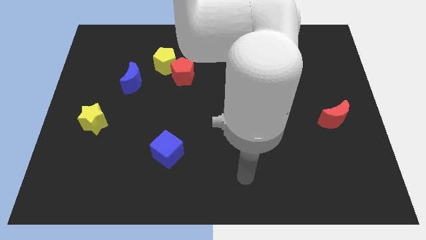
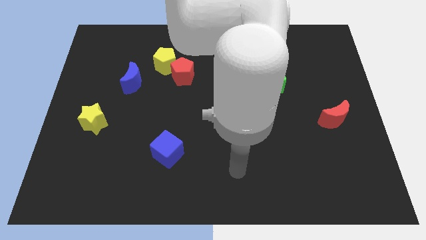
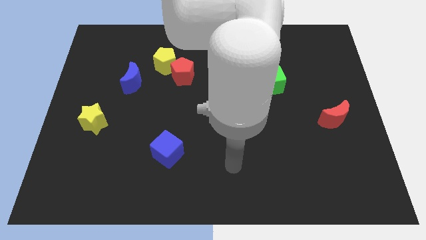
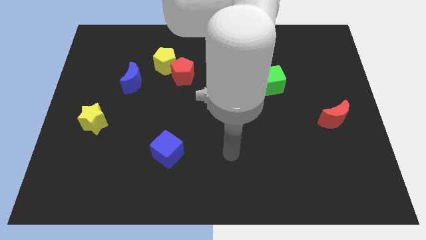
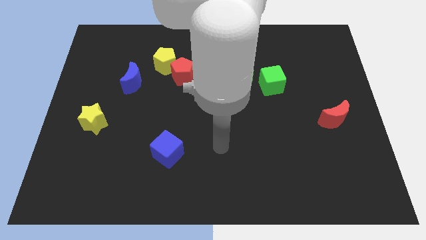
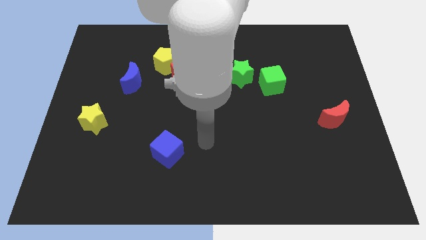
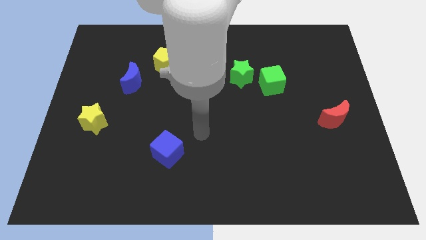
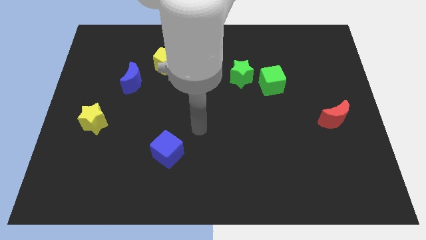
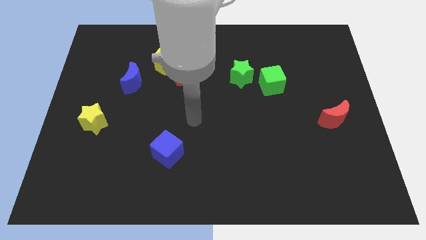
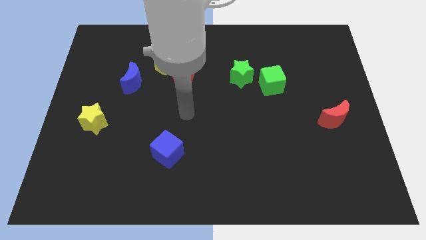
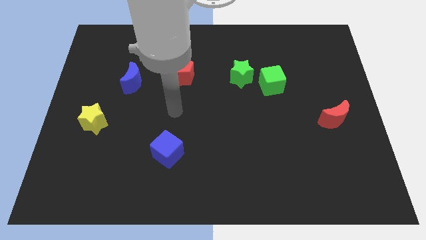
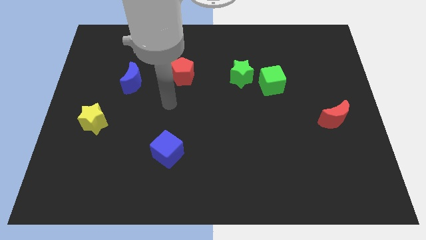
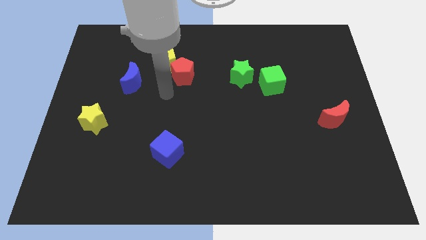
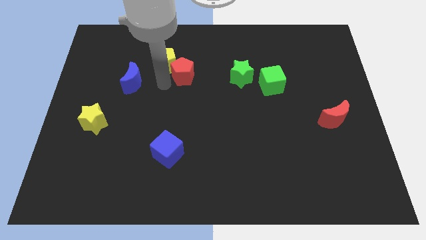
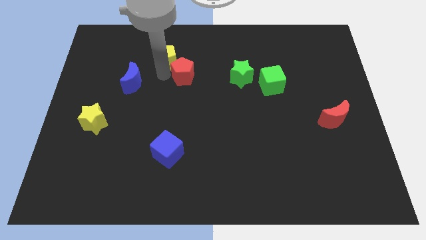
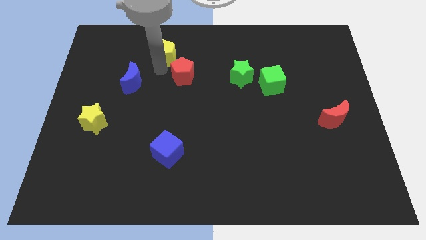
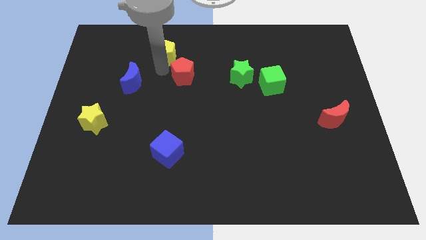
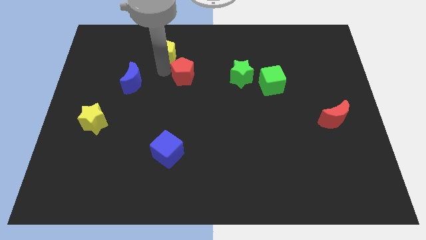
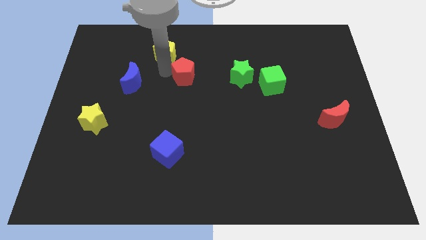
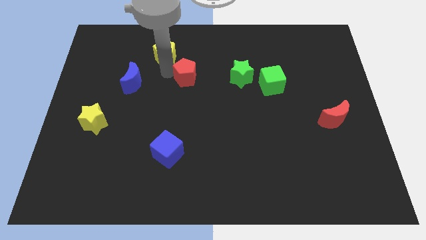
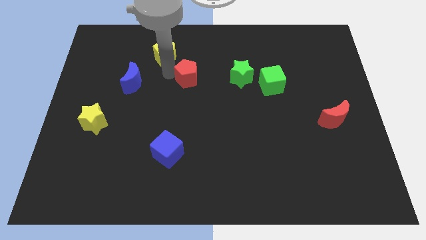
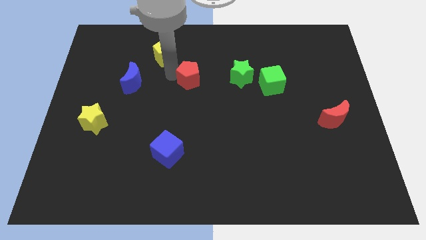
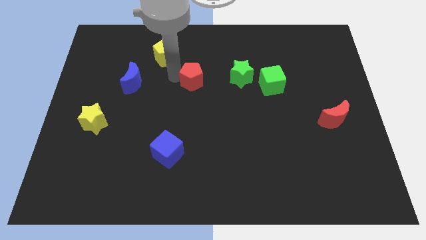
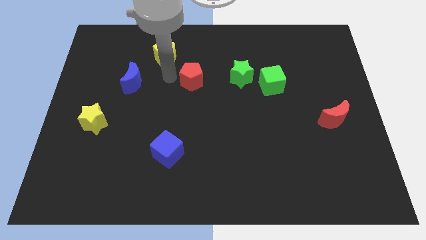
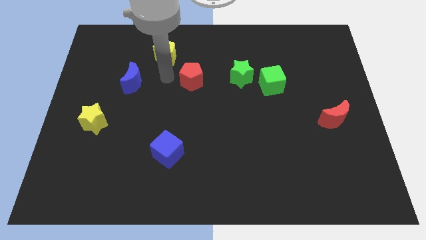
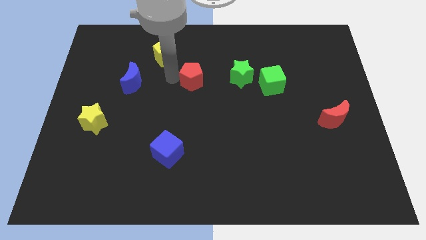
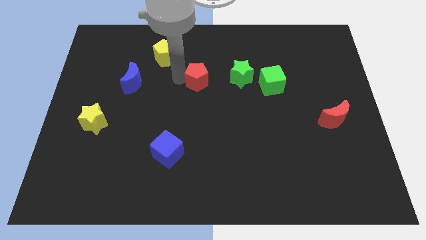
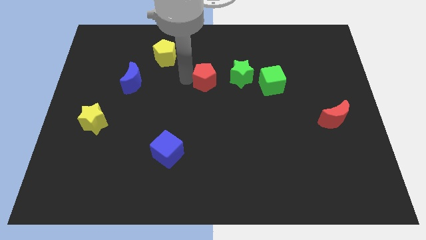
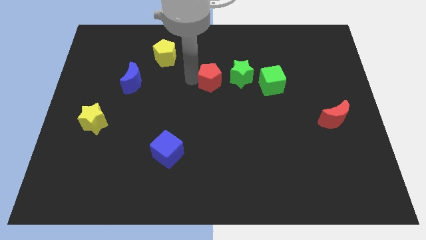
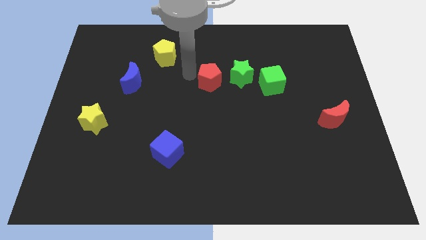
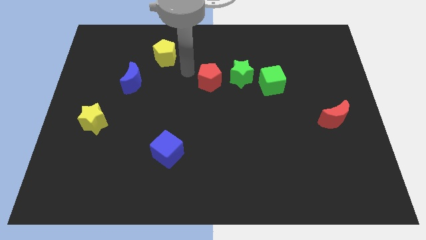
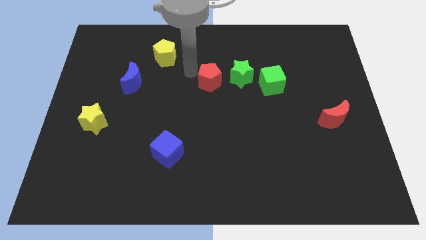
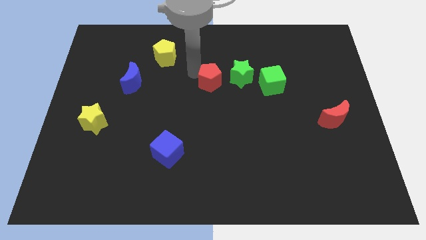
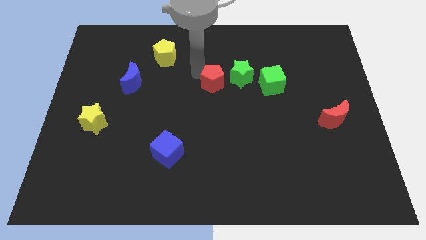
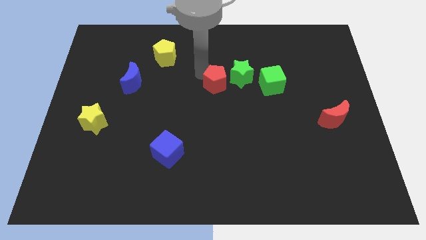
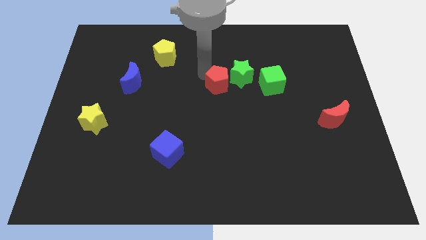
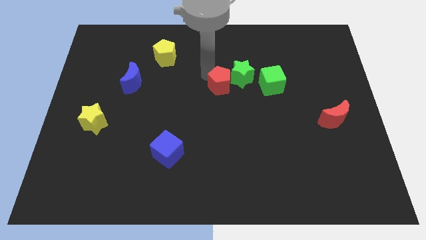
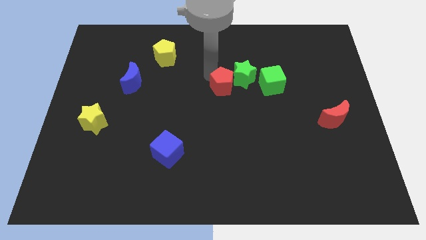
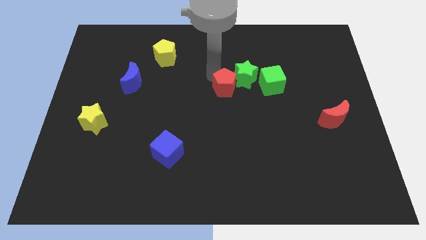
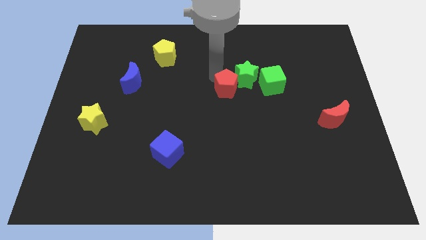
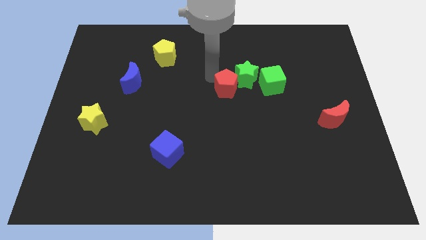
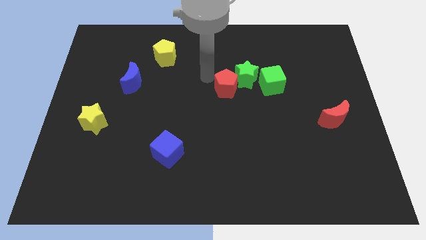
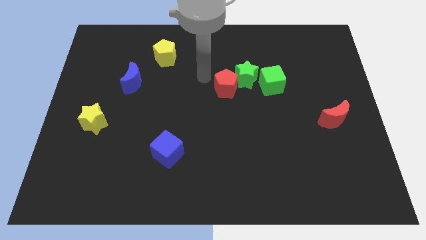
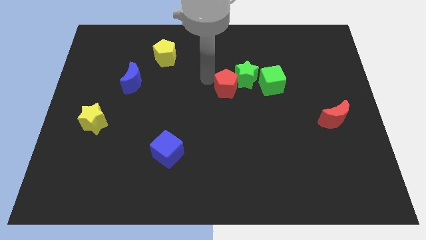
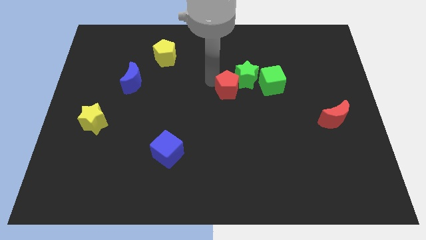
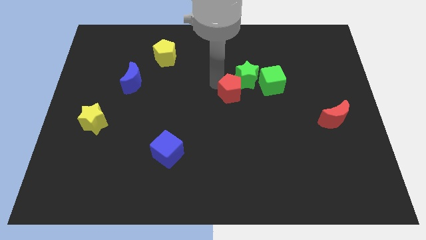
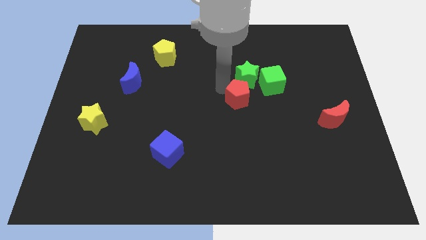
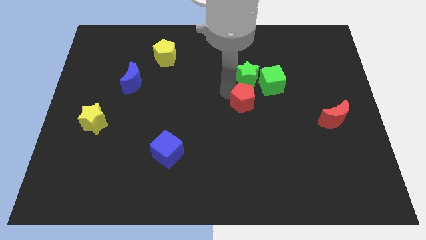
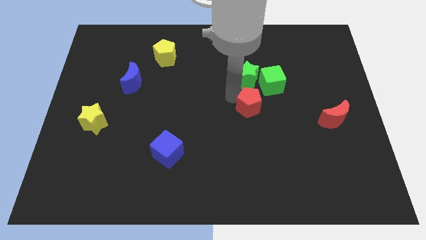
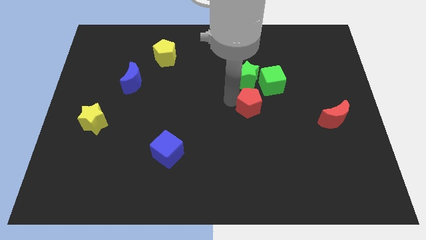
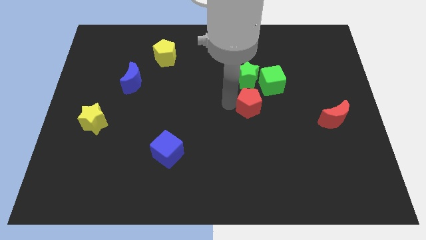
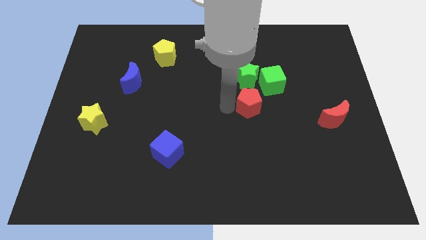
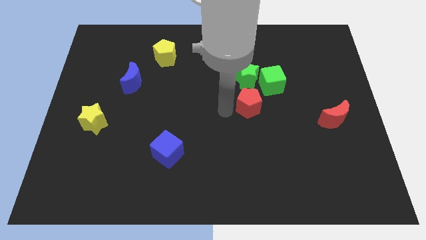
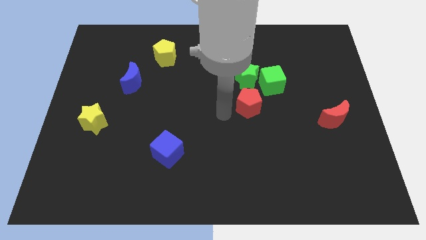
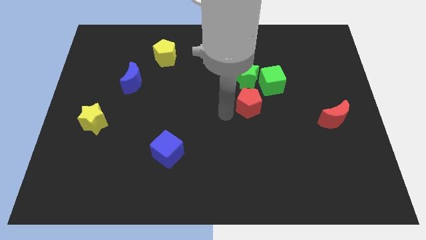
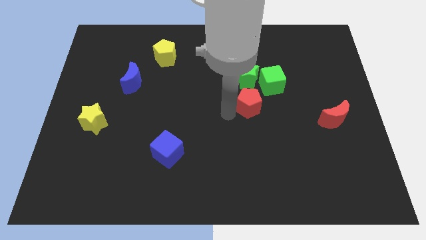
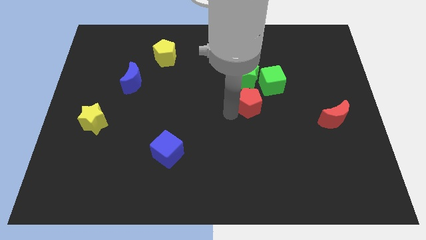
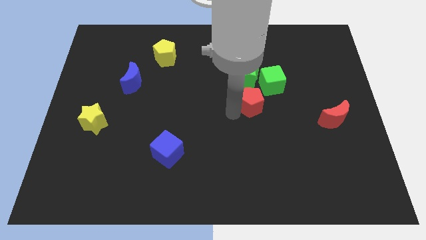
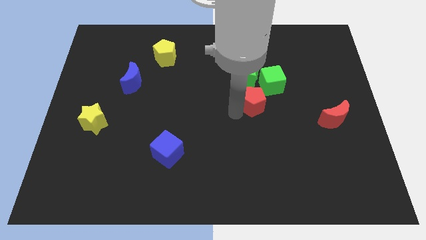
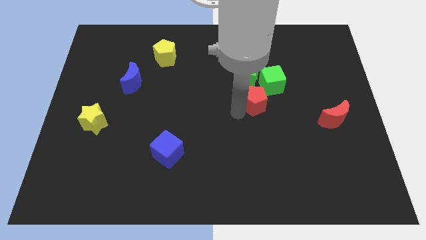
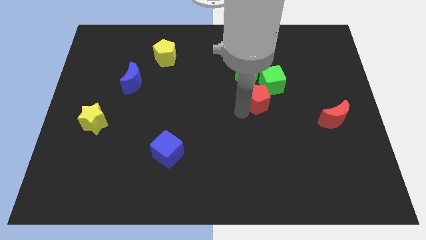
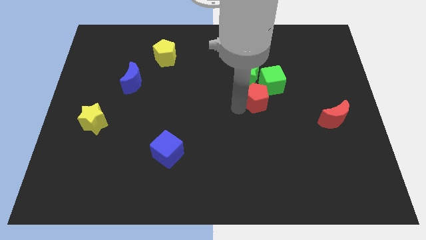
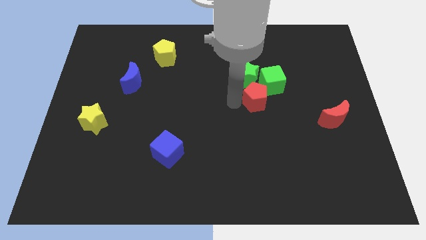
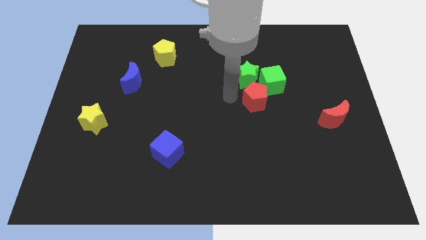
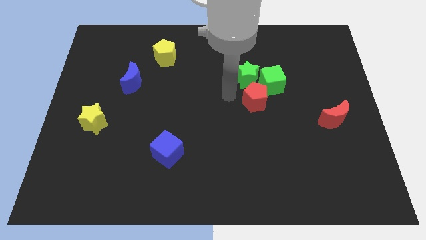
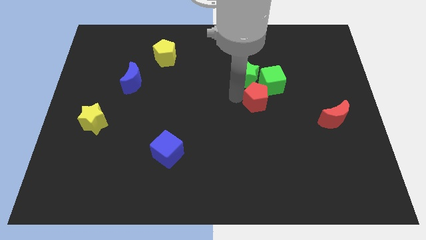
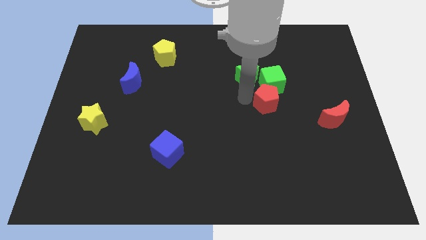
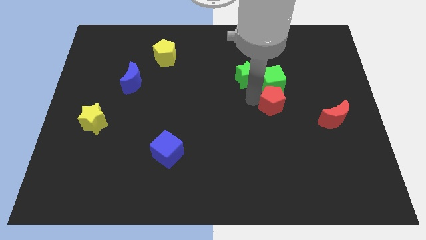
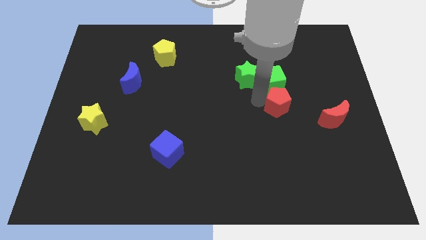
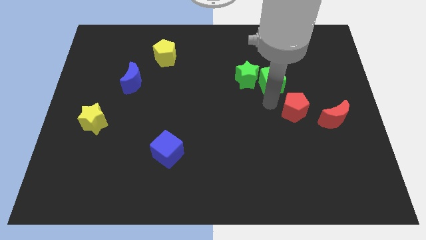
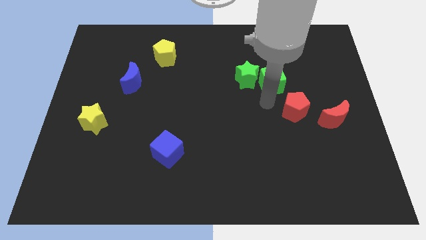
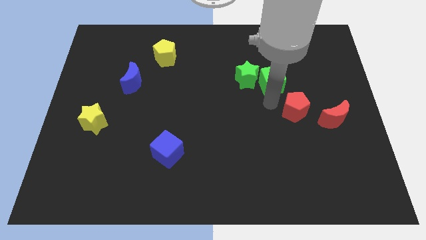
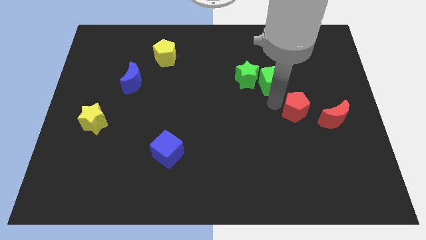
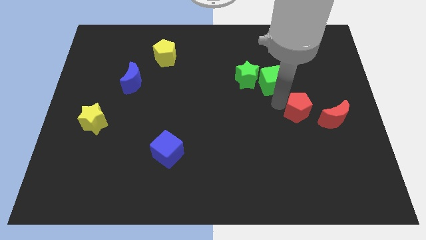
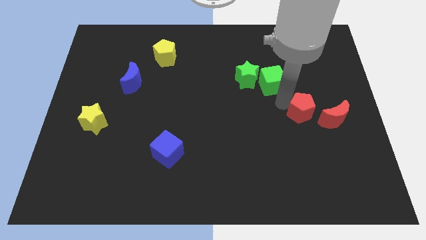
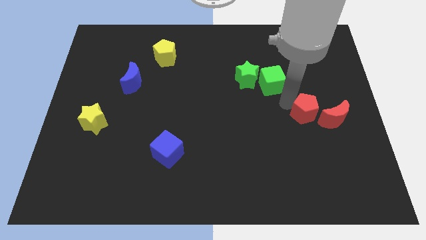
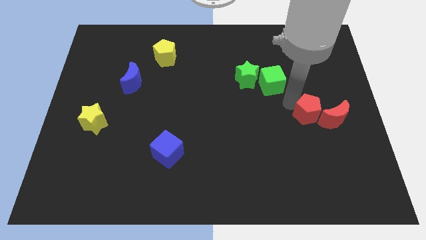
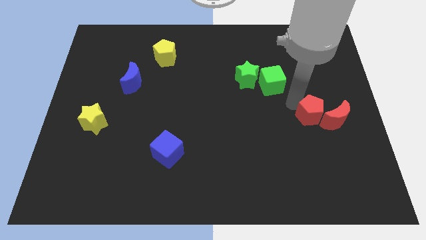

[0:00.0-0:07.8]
move the red pentagon towards the red moon
